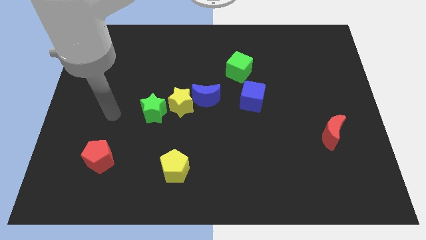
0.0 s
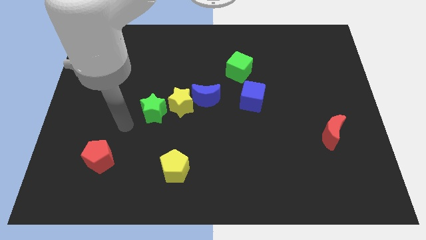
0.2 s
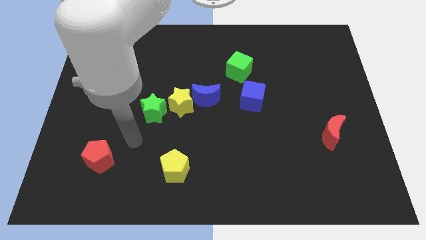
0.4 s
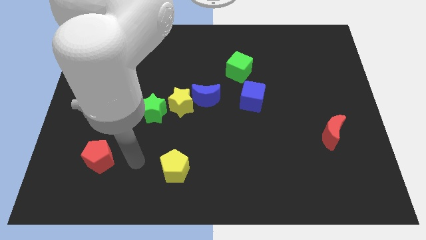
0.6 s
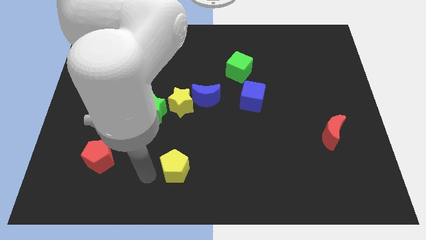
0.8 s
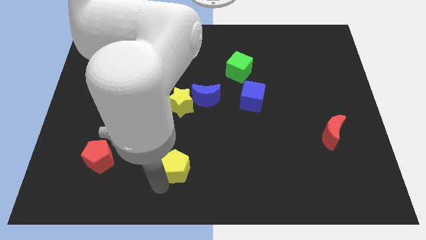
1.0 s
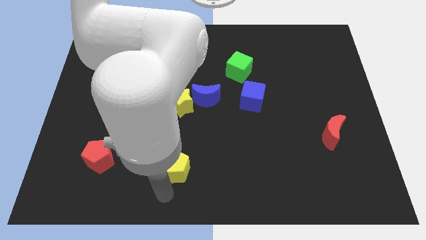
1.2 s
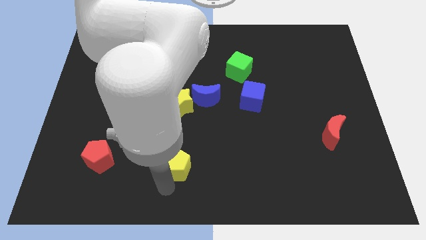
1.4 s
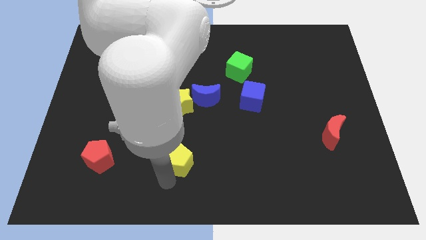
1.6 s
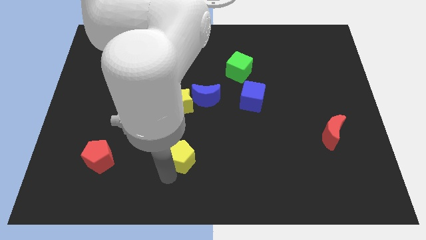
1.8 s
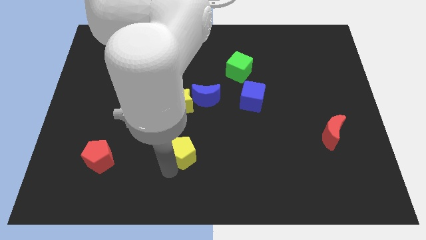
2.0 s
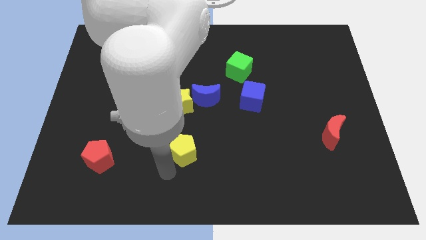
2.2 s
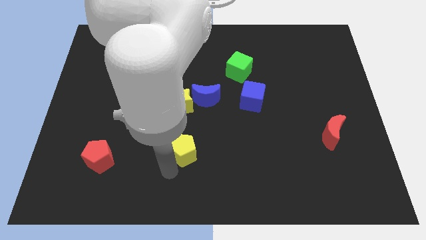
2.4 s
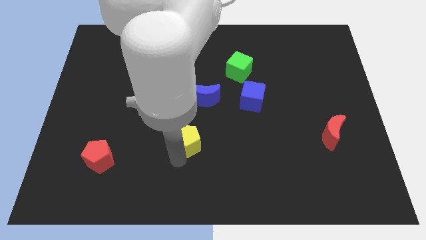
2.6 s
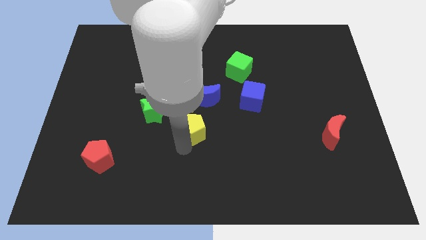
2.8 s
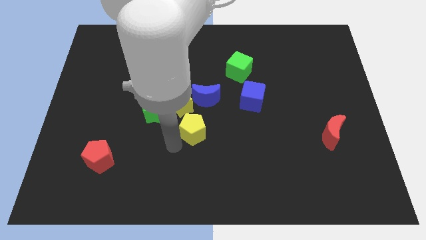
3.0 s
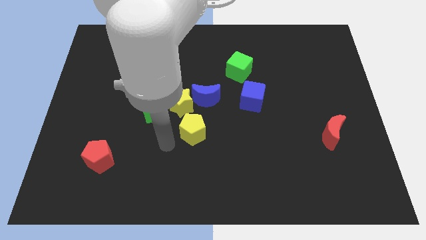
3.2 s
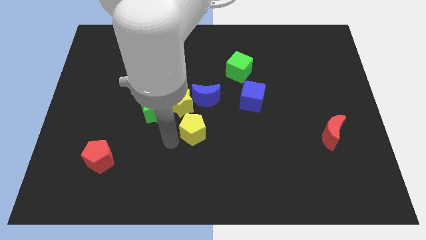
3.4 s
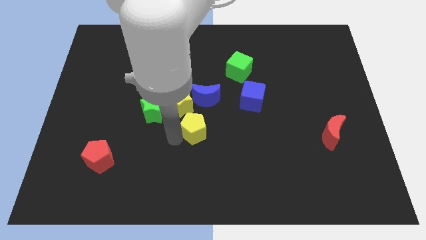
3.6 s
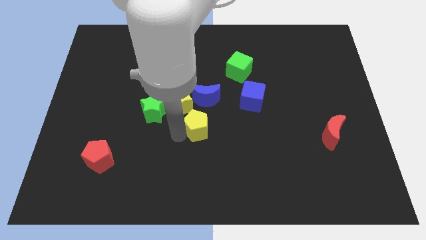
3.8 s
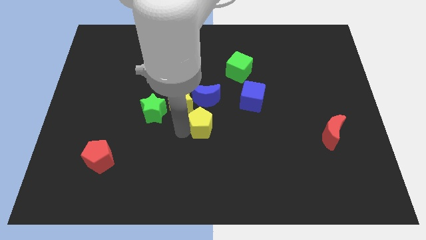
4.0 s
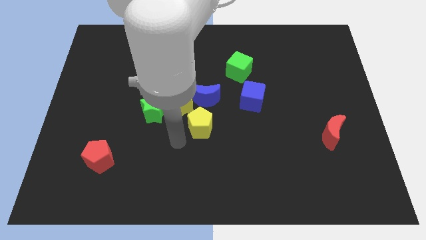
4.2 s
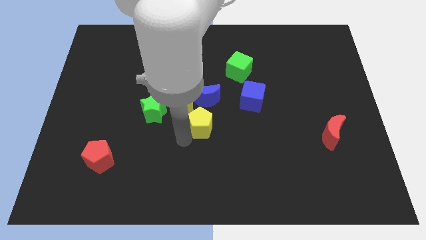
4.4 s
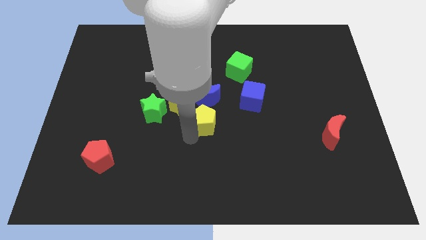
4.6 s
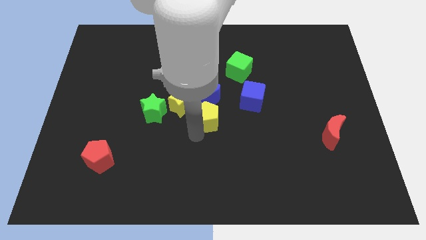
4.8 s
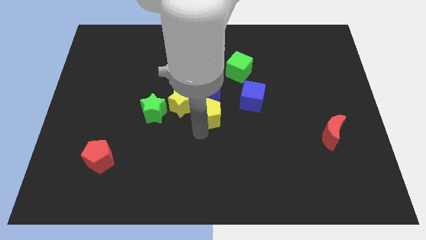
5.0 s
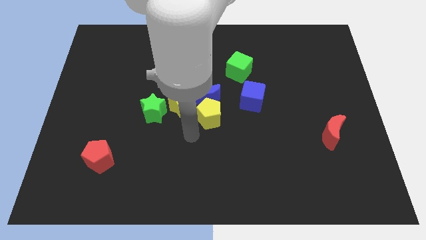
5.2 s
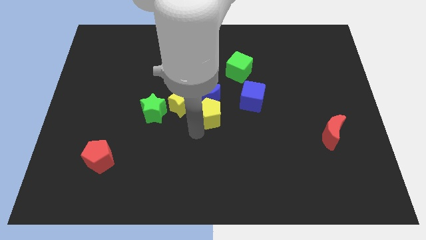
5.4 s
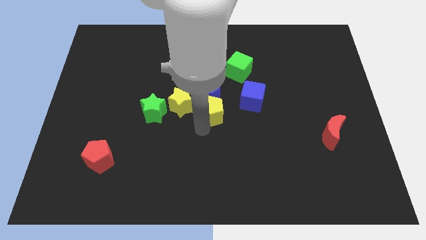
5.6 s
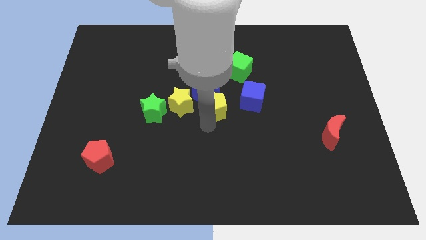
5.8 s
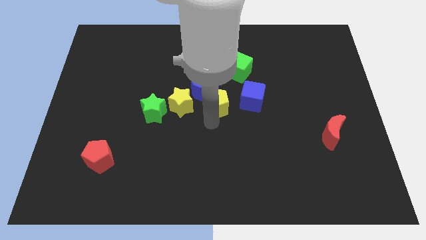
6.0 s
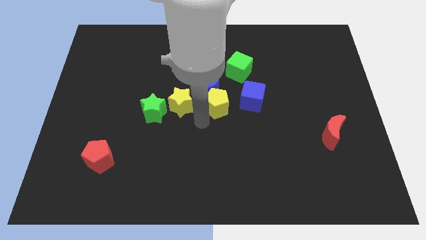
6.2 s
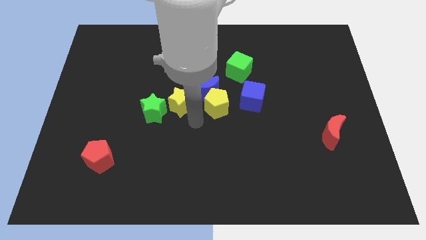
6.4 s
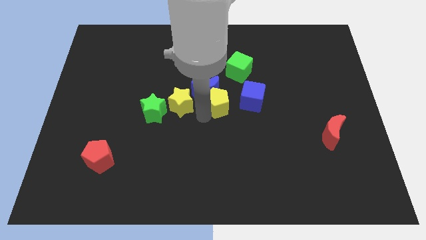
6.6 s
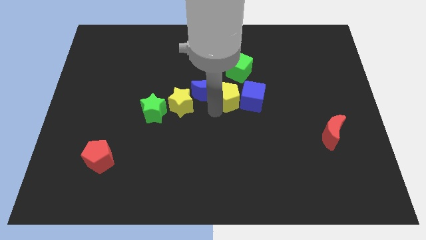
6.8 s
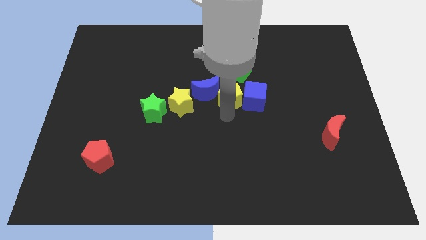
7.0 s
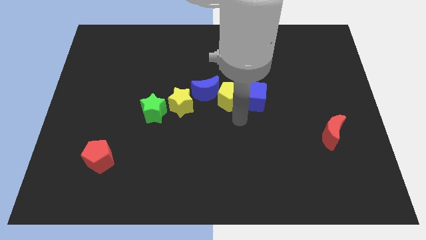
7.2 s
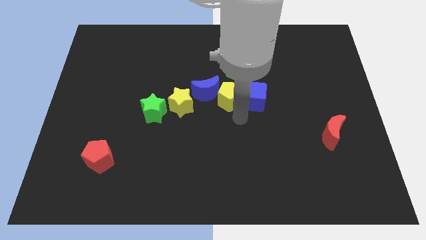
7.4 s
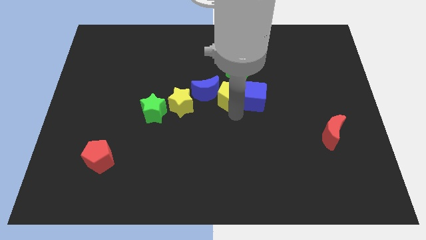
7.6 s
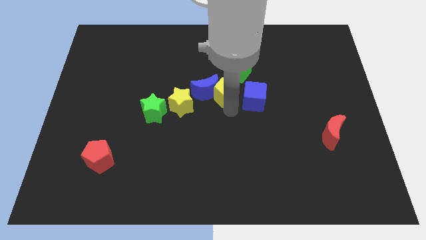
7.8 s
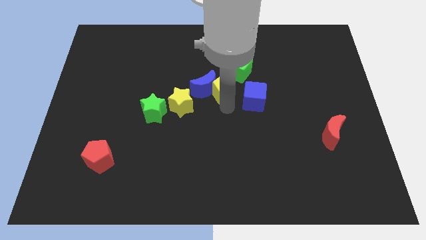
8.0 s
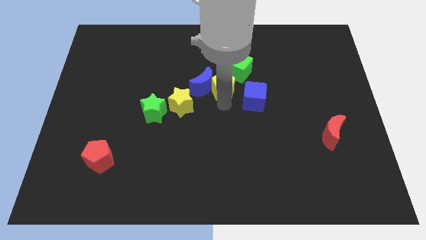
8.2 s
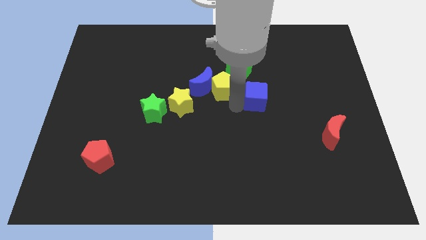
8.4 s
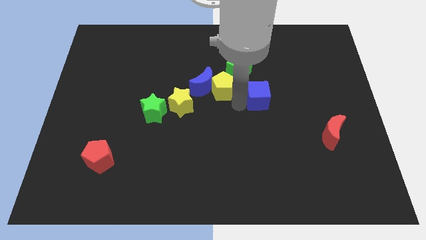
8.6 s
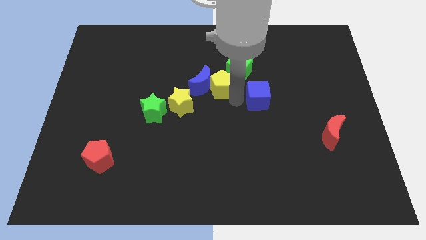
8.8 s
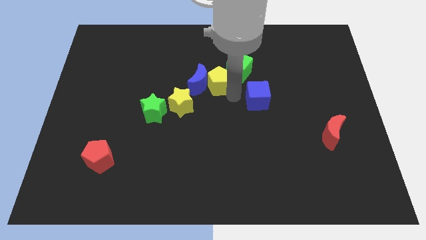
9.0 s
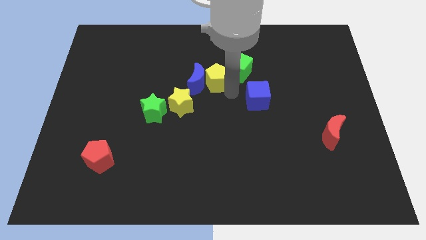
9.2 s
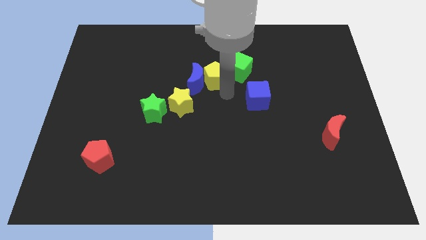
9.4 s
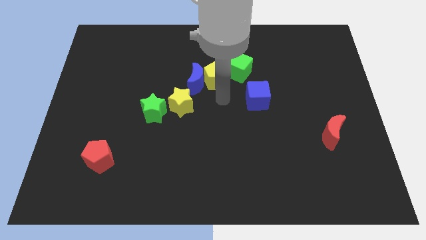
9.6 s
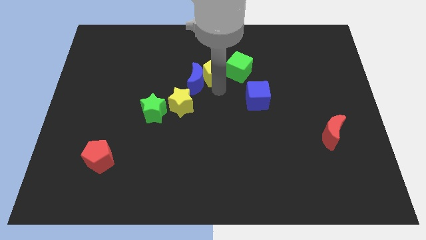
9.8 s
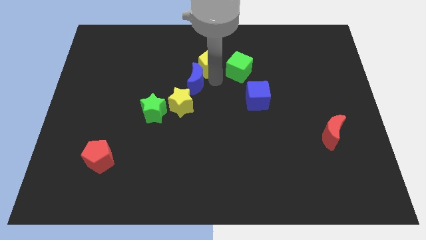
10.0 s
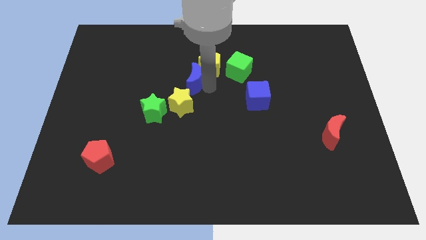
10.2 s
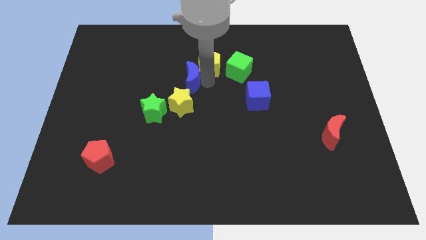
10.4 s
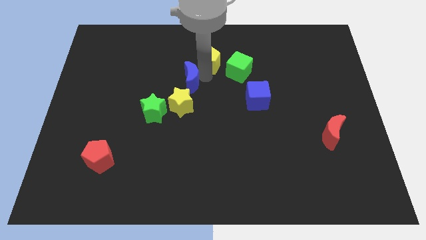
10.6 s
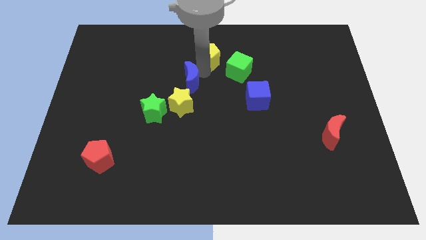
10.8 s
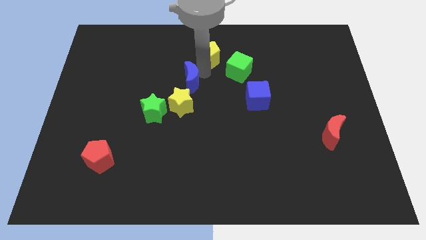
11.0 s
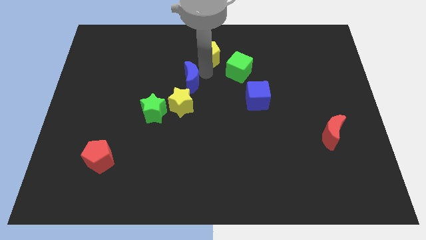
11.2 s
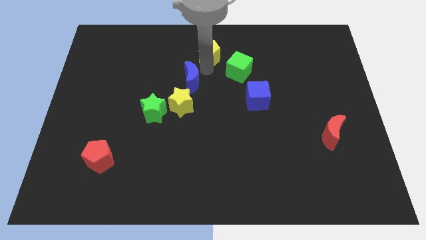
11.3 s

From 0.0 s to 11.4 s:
move the yellow pentagon to the top
